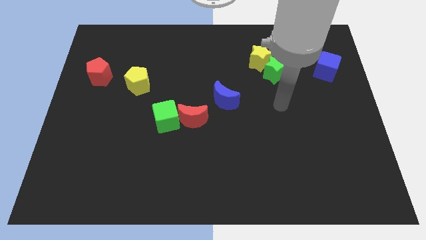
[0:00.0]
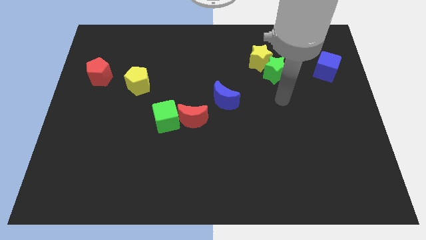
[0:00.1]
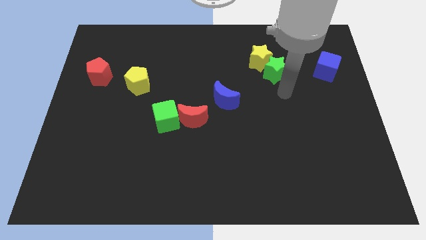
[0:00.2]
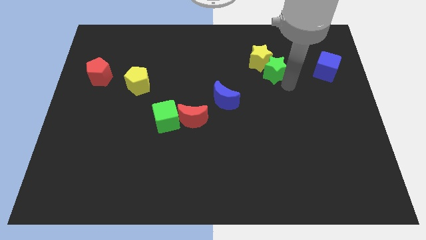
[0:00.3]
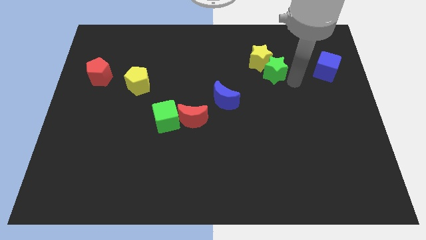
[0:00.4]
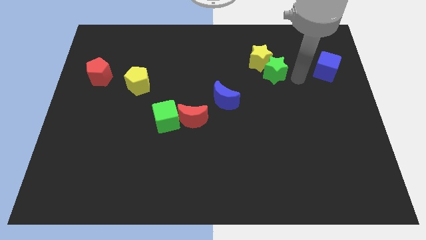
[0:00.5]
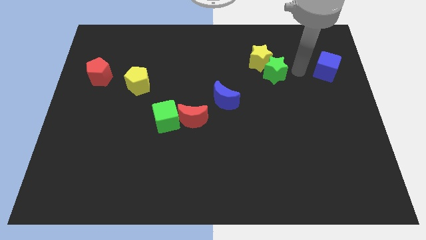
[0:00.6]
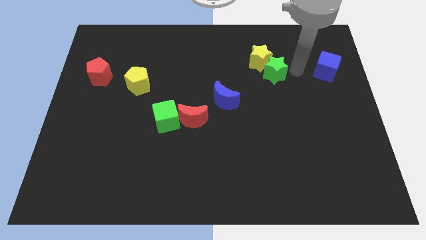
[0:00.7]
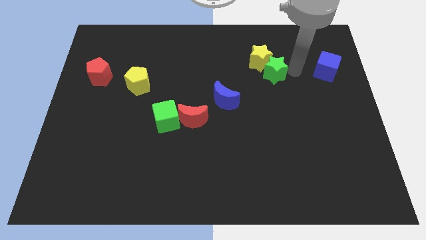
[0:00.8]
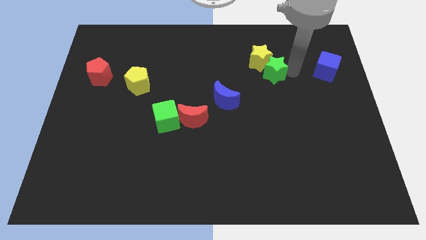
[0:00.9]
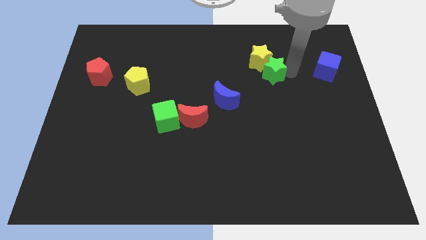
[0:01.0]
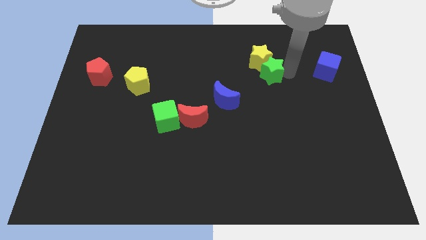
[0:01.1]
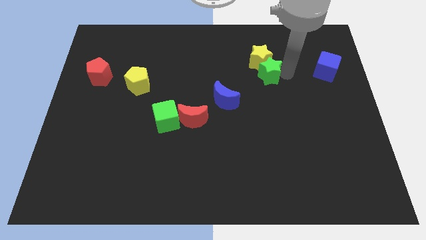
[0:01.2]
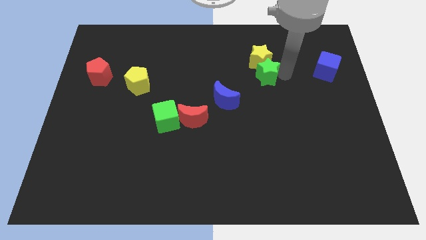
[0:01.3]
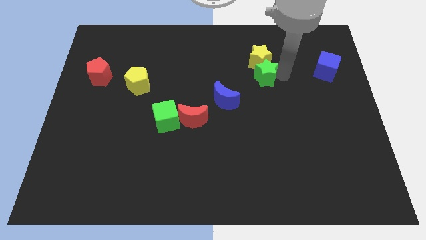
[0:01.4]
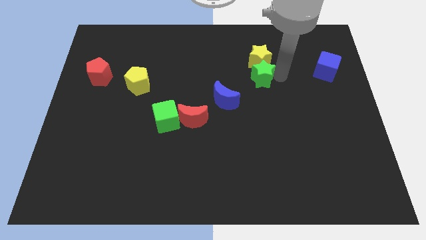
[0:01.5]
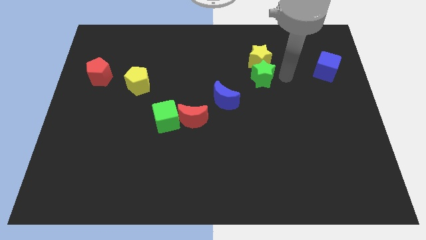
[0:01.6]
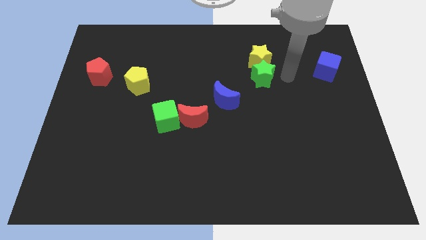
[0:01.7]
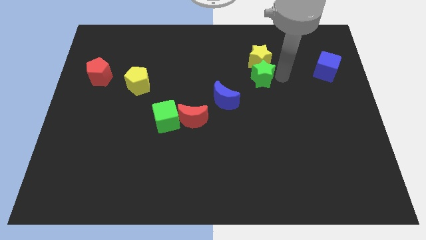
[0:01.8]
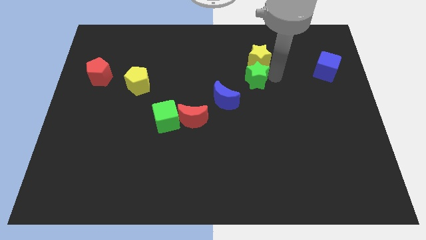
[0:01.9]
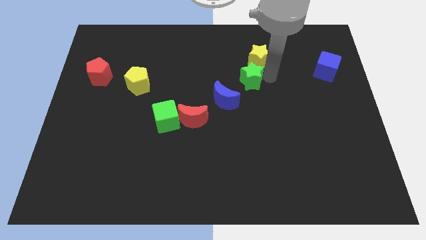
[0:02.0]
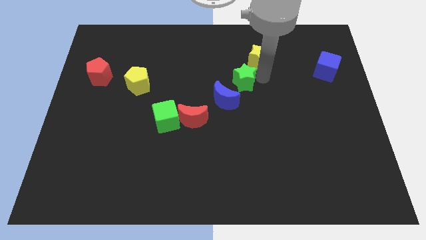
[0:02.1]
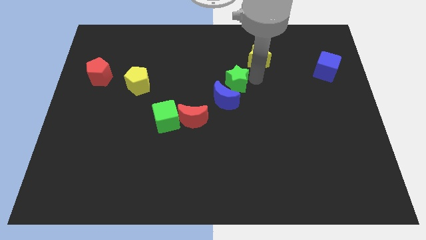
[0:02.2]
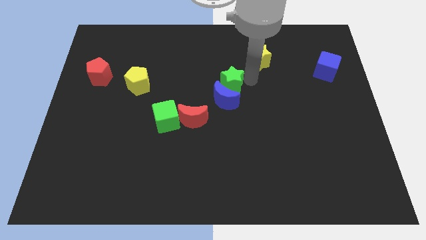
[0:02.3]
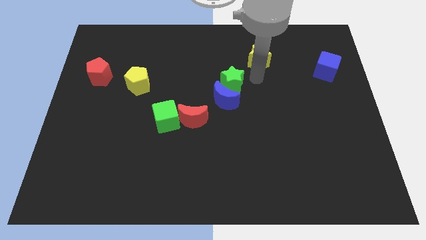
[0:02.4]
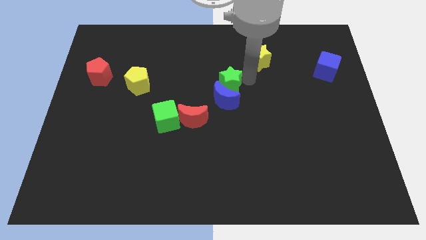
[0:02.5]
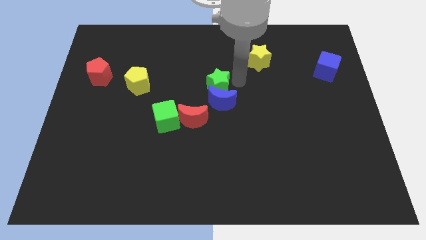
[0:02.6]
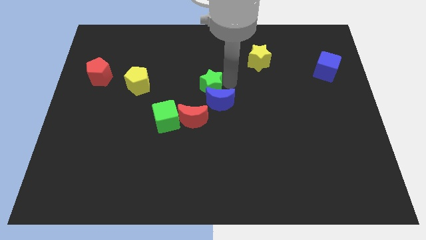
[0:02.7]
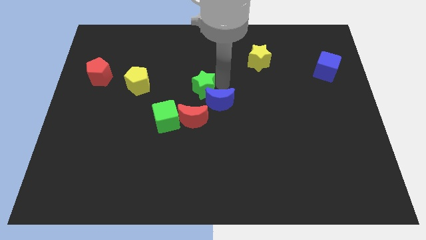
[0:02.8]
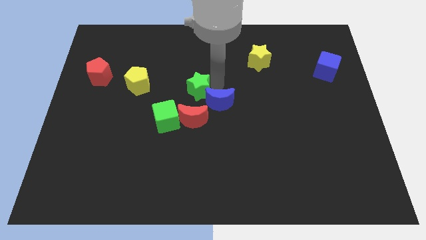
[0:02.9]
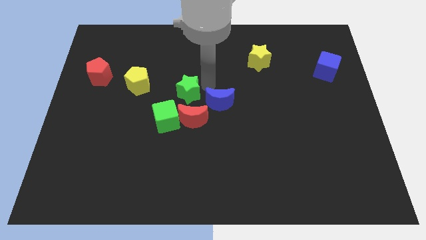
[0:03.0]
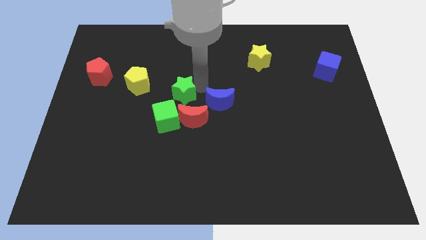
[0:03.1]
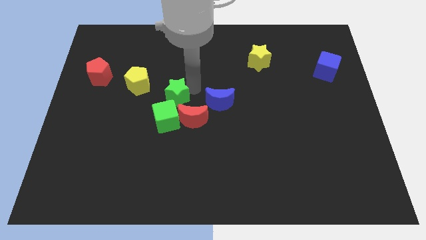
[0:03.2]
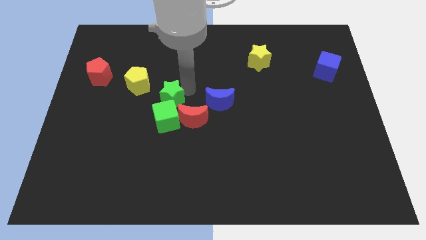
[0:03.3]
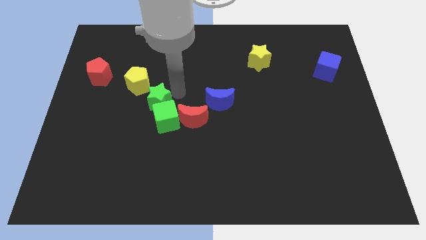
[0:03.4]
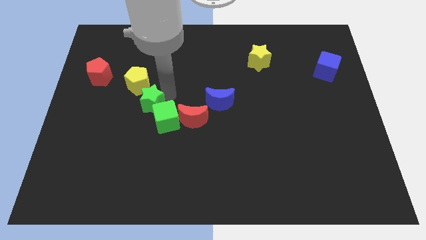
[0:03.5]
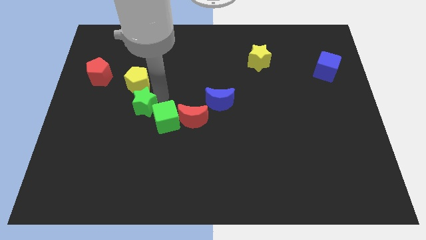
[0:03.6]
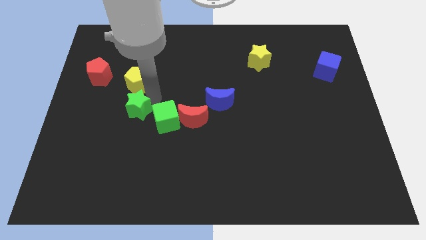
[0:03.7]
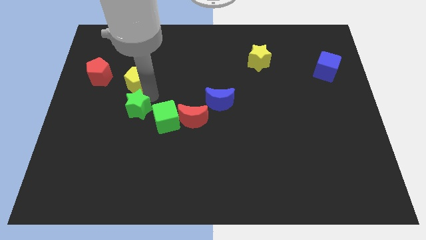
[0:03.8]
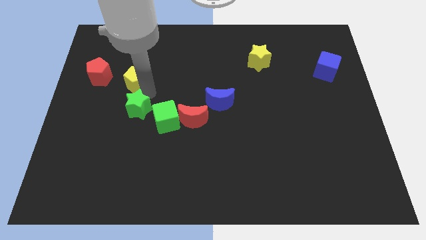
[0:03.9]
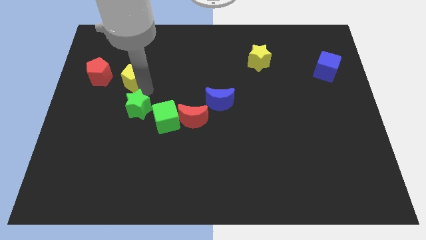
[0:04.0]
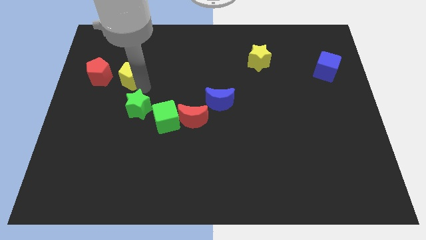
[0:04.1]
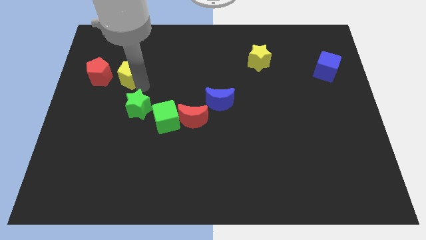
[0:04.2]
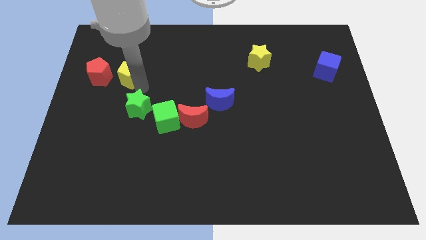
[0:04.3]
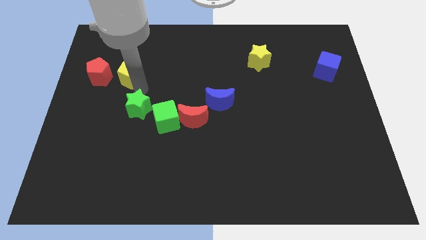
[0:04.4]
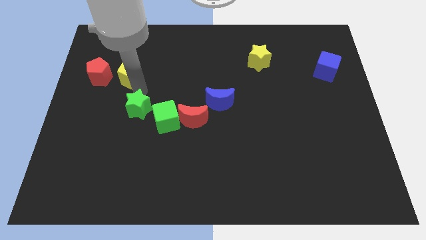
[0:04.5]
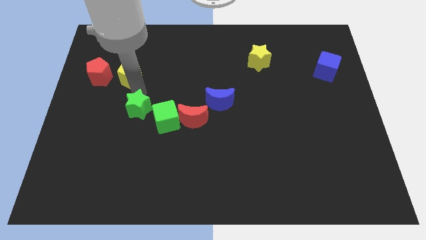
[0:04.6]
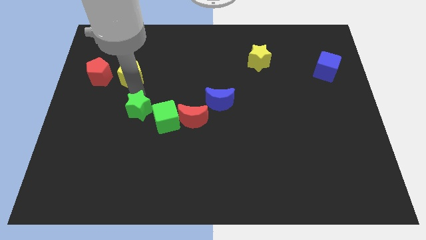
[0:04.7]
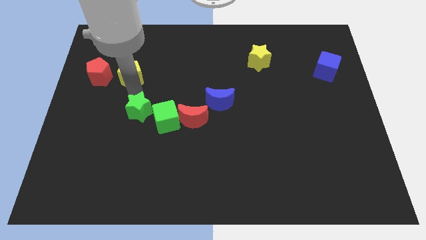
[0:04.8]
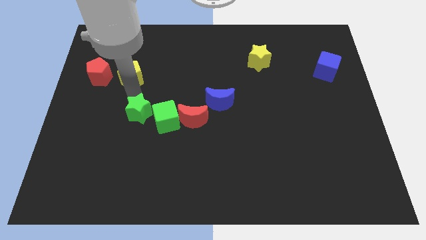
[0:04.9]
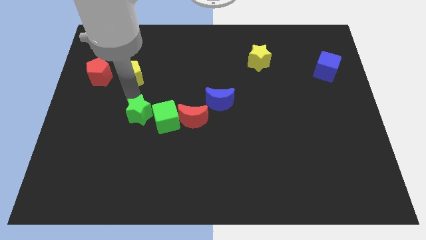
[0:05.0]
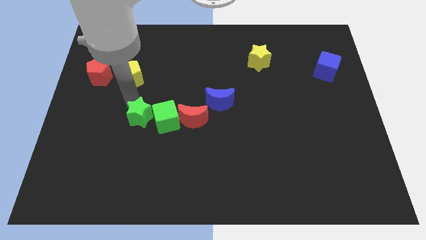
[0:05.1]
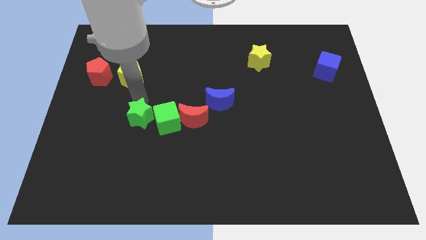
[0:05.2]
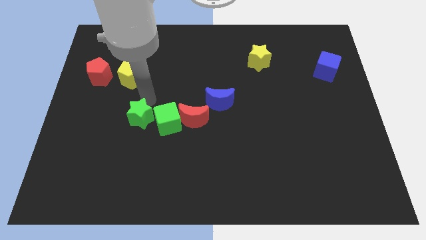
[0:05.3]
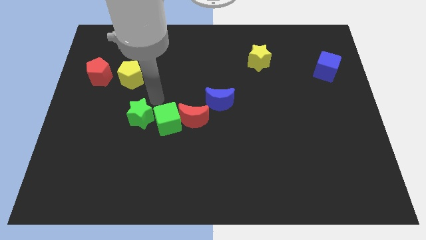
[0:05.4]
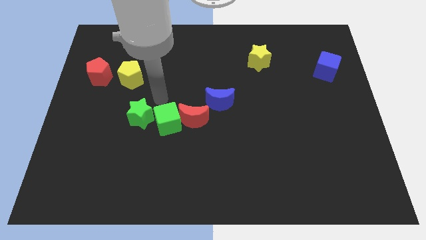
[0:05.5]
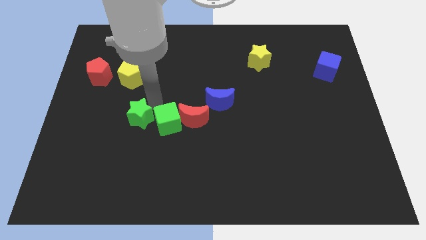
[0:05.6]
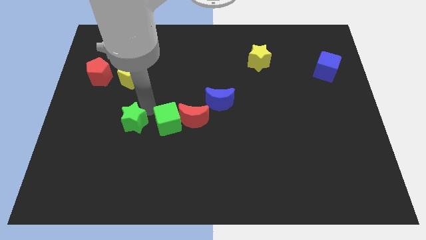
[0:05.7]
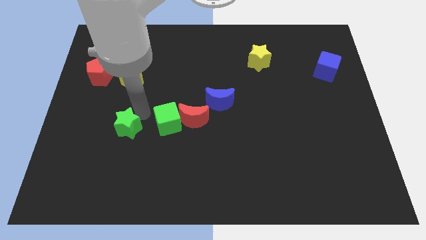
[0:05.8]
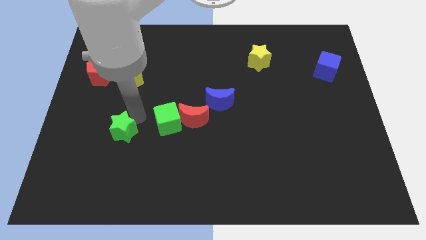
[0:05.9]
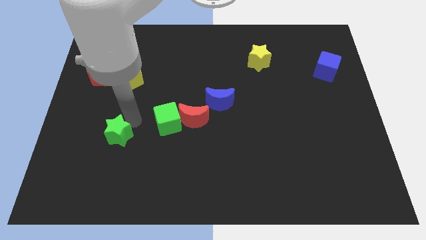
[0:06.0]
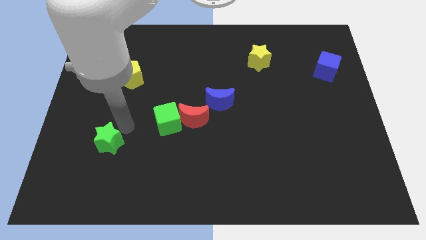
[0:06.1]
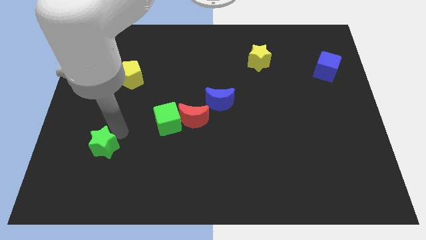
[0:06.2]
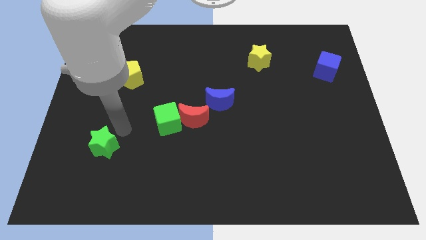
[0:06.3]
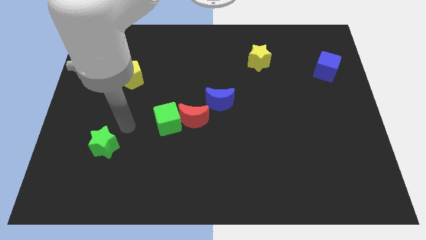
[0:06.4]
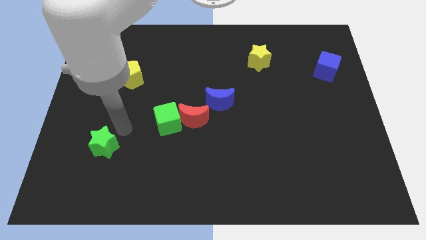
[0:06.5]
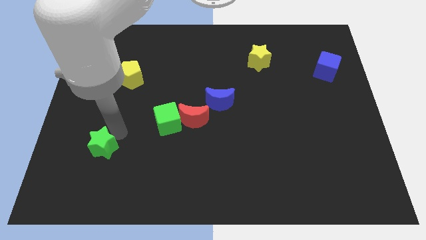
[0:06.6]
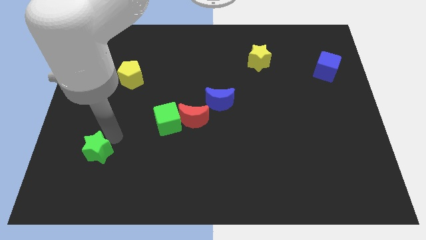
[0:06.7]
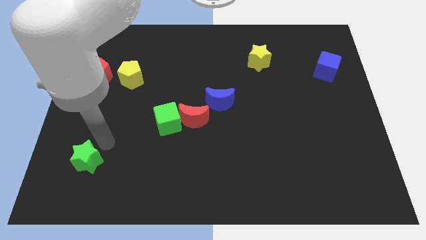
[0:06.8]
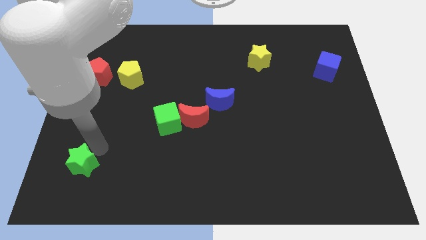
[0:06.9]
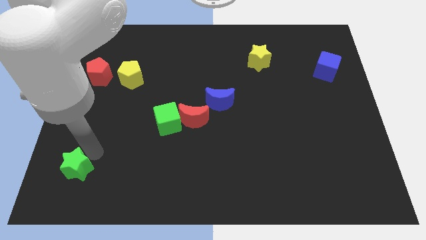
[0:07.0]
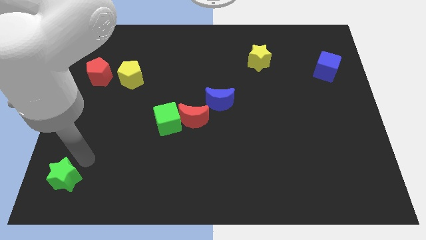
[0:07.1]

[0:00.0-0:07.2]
slide the green star to the lower left corner
